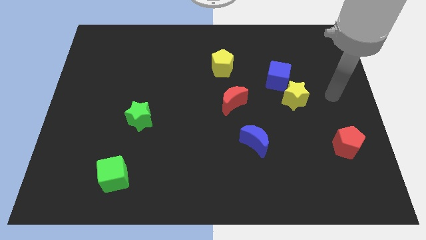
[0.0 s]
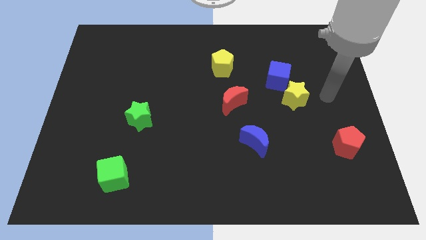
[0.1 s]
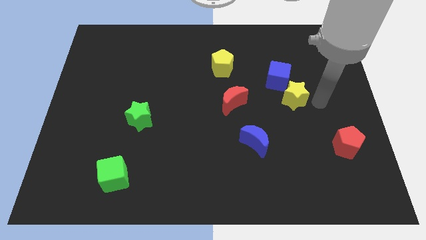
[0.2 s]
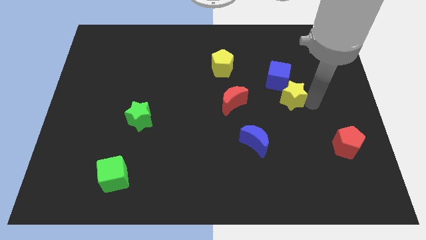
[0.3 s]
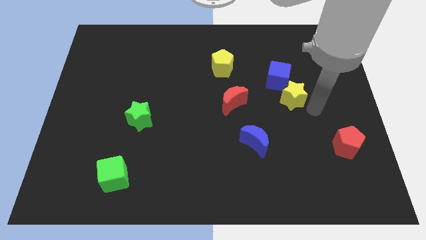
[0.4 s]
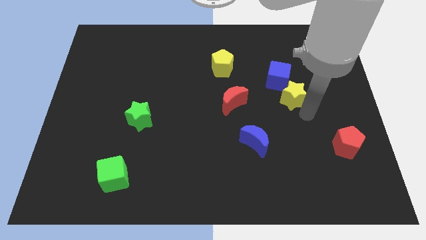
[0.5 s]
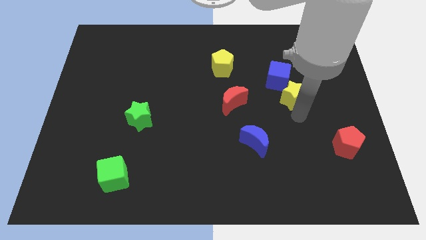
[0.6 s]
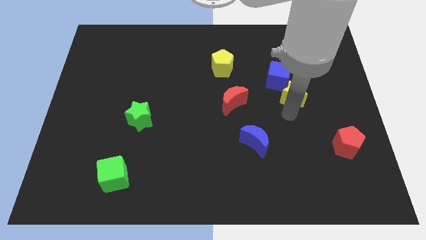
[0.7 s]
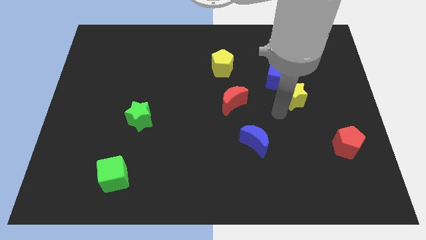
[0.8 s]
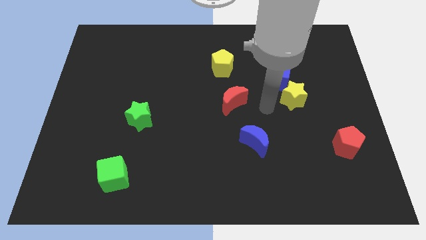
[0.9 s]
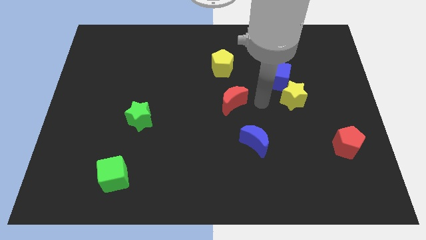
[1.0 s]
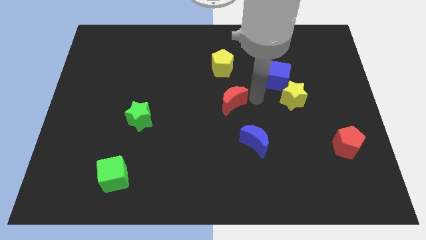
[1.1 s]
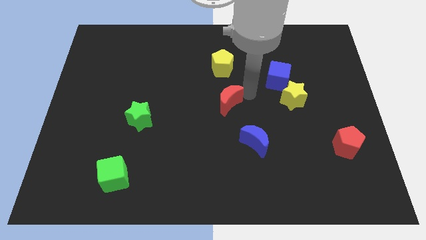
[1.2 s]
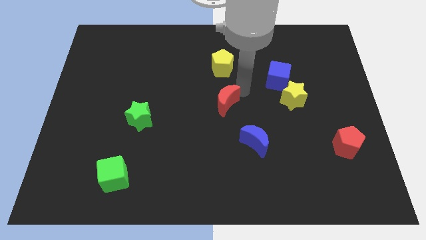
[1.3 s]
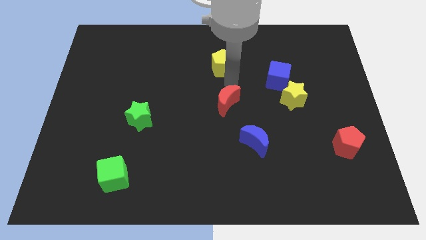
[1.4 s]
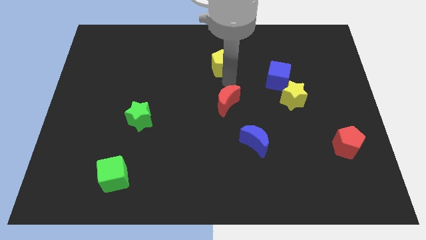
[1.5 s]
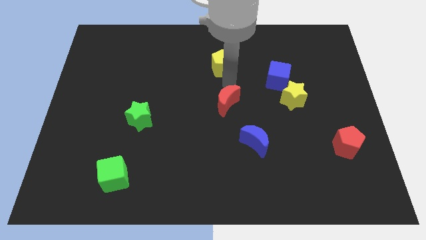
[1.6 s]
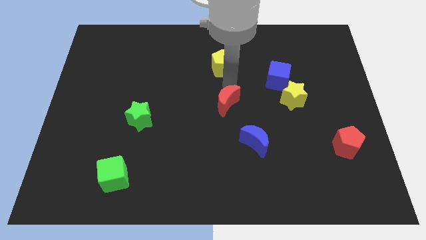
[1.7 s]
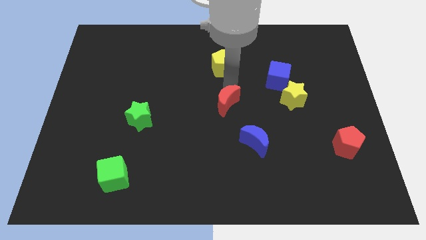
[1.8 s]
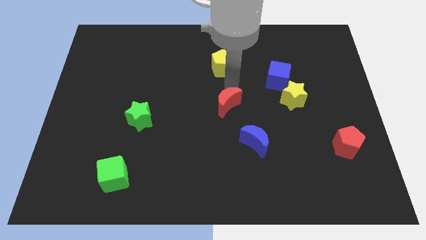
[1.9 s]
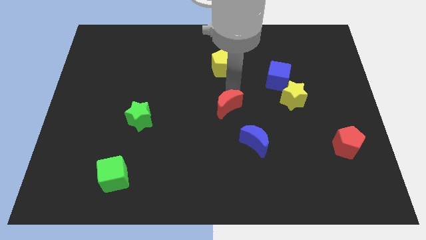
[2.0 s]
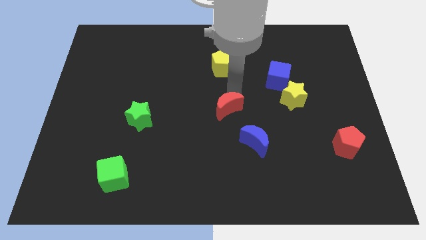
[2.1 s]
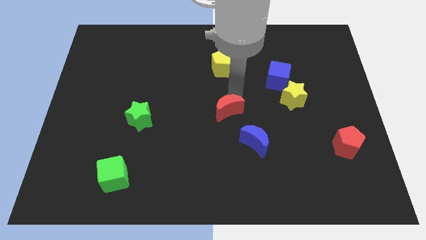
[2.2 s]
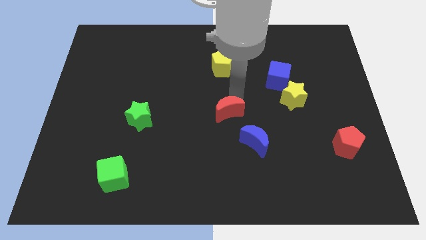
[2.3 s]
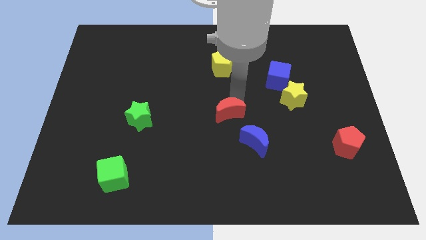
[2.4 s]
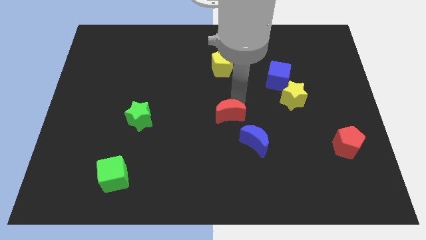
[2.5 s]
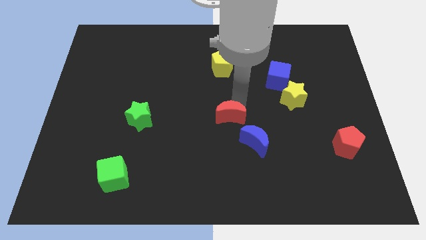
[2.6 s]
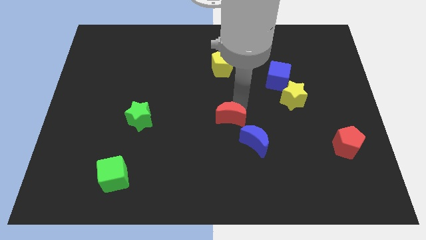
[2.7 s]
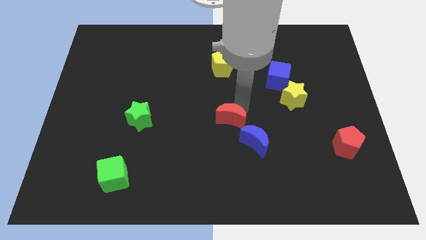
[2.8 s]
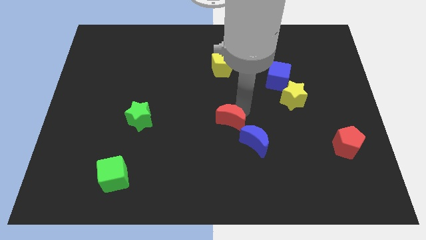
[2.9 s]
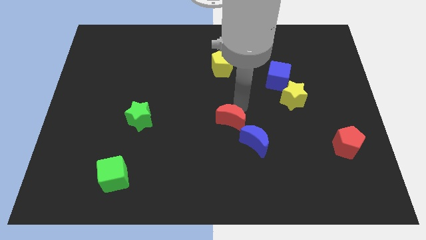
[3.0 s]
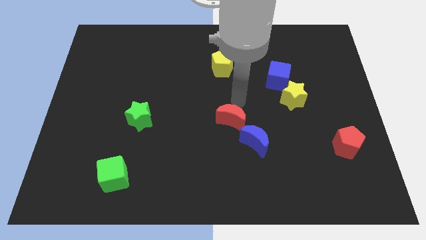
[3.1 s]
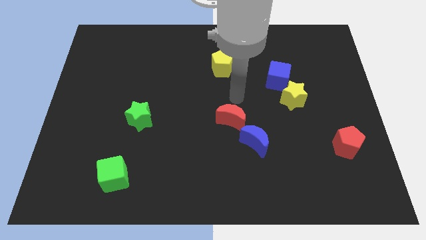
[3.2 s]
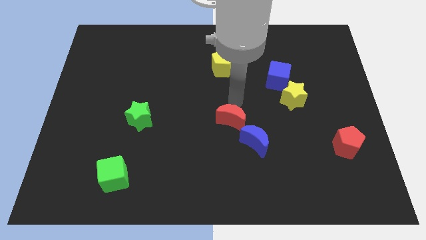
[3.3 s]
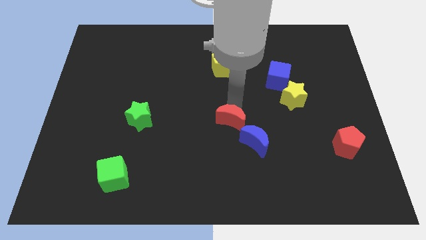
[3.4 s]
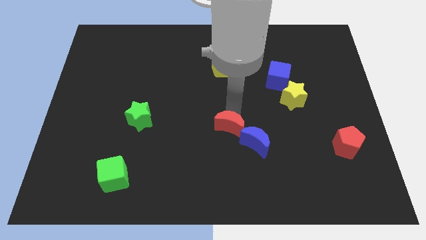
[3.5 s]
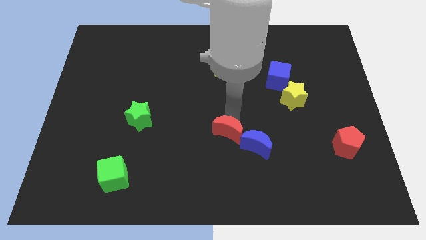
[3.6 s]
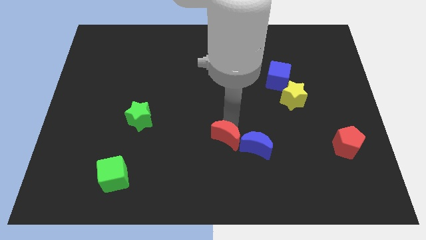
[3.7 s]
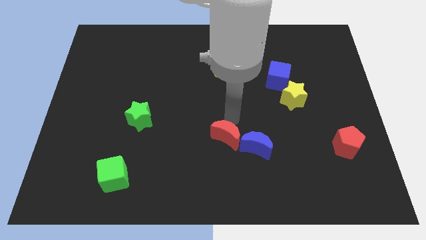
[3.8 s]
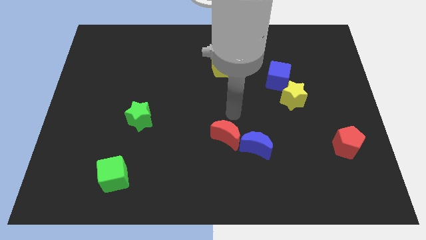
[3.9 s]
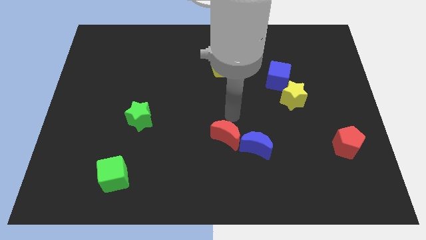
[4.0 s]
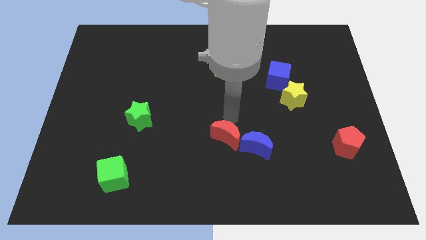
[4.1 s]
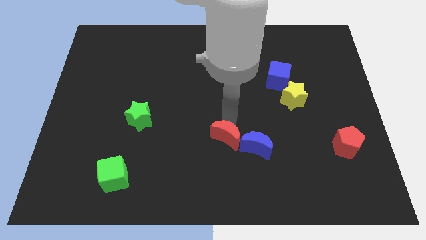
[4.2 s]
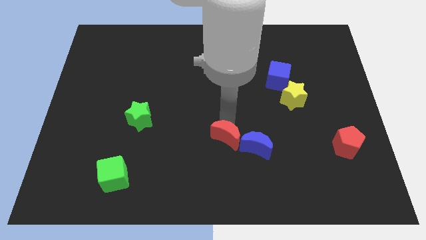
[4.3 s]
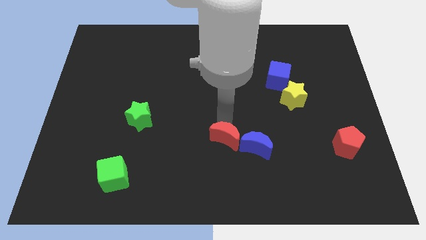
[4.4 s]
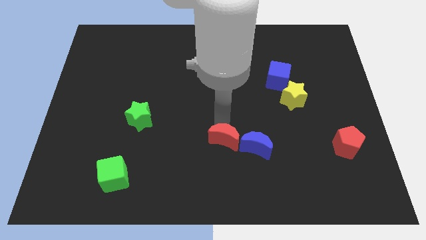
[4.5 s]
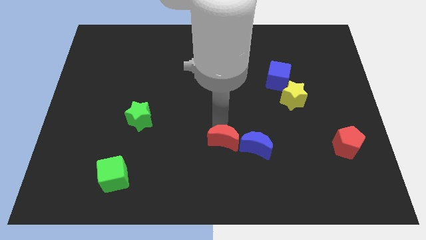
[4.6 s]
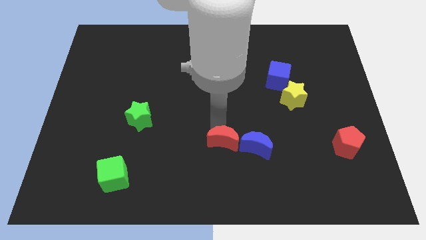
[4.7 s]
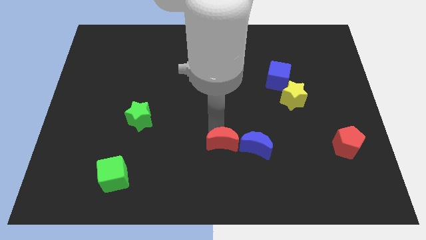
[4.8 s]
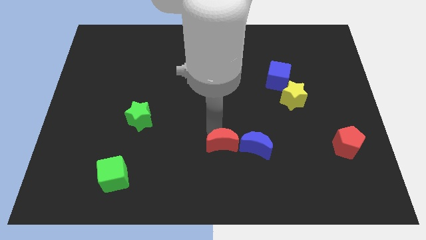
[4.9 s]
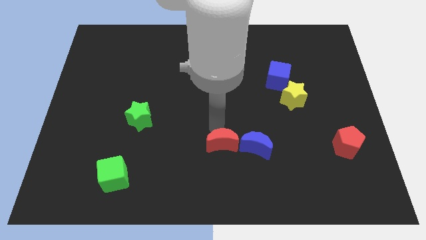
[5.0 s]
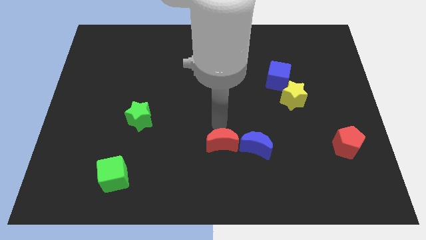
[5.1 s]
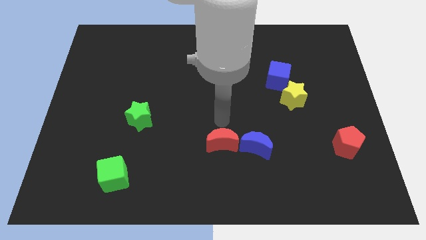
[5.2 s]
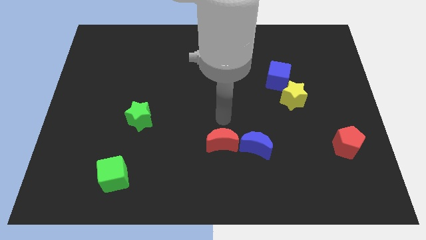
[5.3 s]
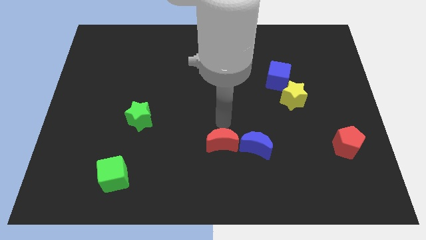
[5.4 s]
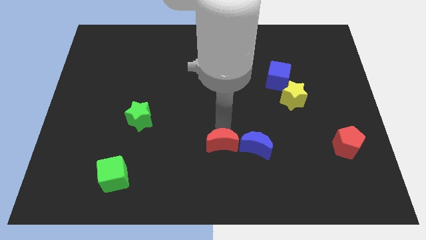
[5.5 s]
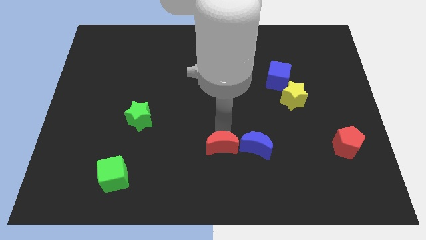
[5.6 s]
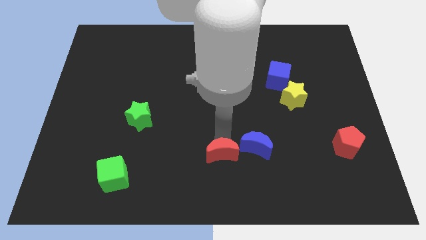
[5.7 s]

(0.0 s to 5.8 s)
slide the red moon to the bottom
